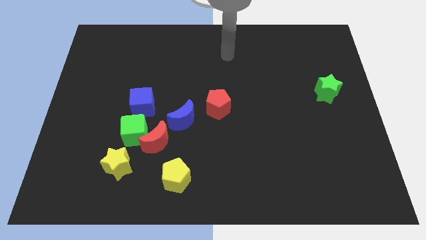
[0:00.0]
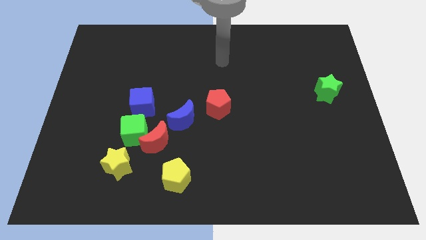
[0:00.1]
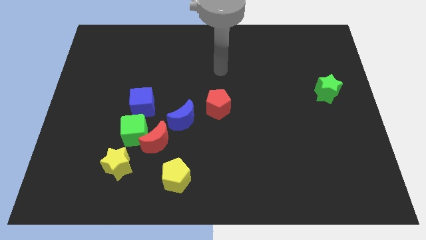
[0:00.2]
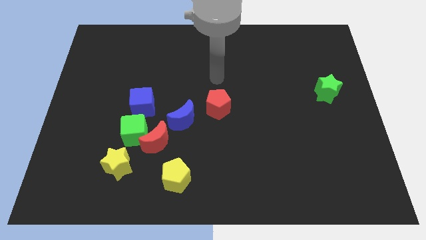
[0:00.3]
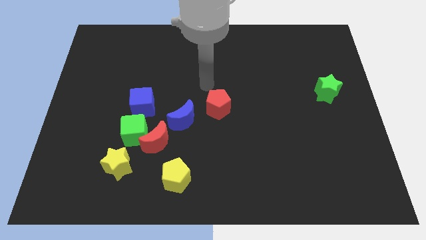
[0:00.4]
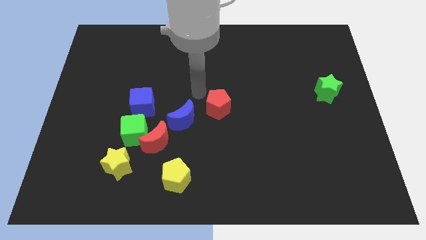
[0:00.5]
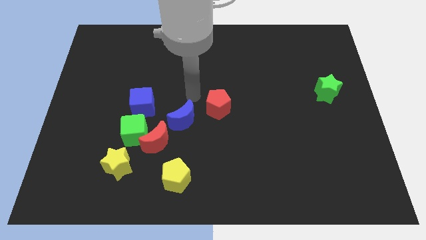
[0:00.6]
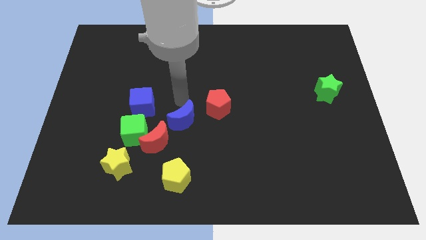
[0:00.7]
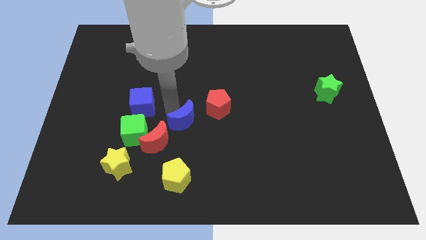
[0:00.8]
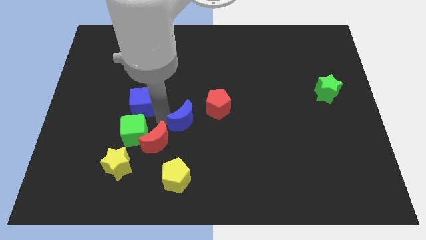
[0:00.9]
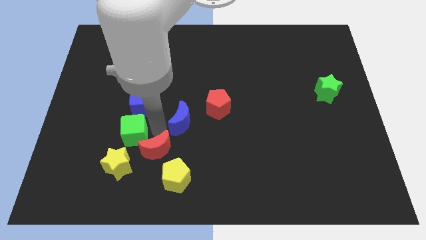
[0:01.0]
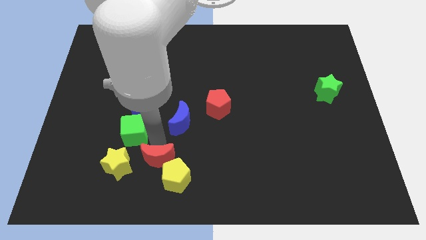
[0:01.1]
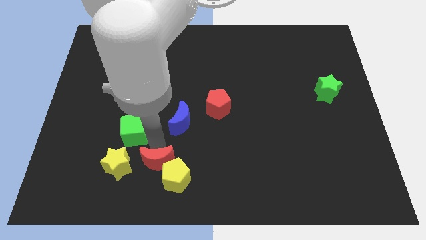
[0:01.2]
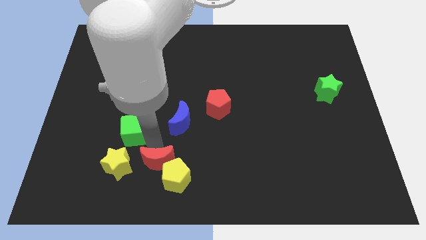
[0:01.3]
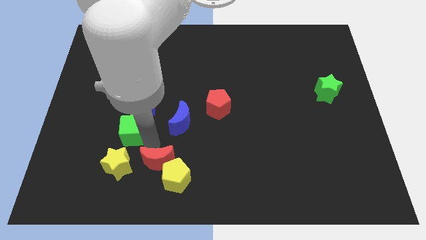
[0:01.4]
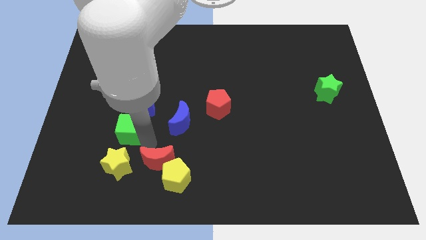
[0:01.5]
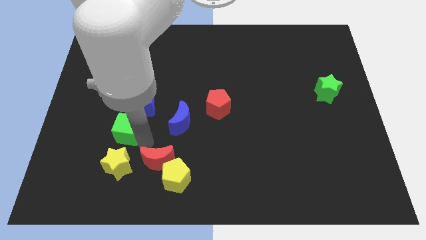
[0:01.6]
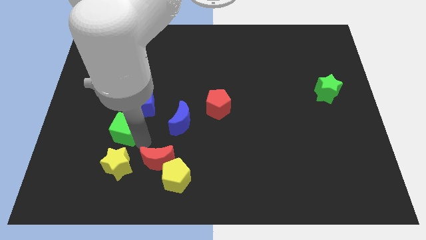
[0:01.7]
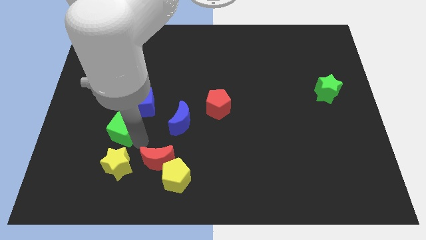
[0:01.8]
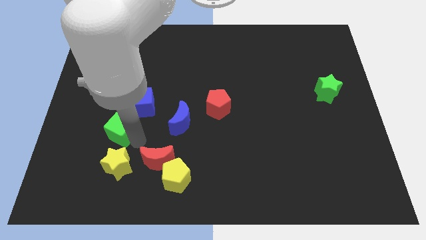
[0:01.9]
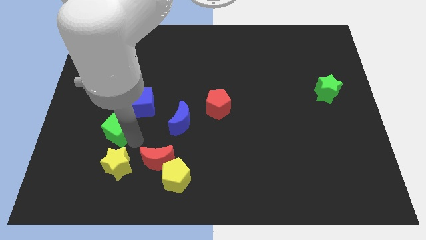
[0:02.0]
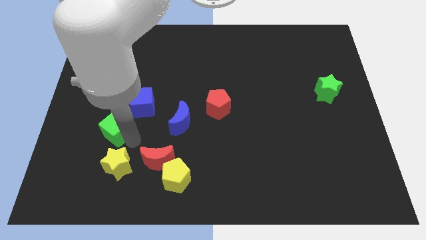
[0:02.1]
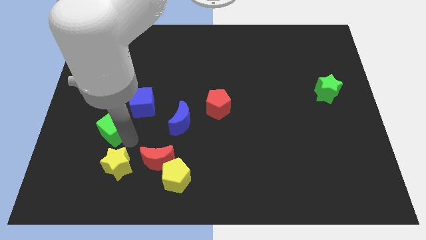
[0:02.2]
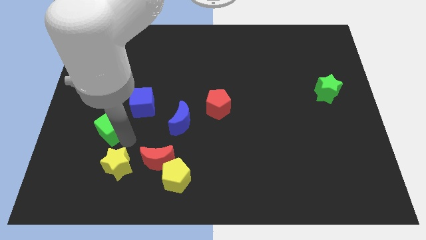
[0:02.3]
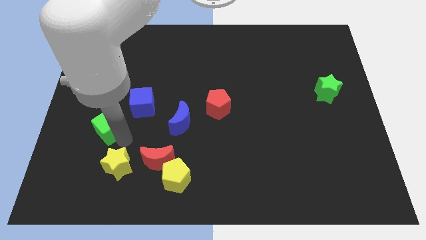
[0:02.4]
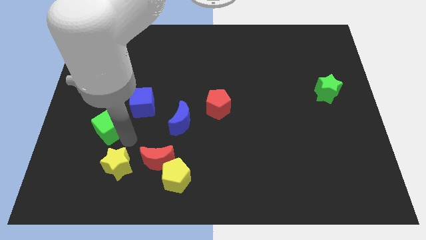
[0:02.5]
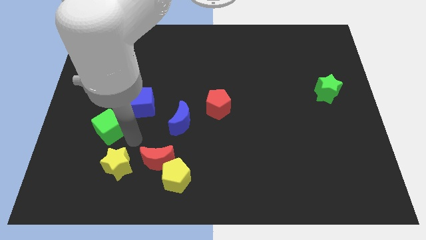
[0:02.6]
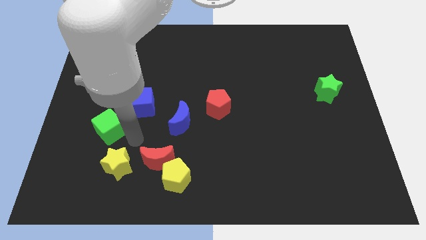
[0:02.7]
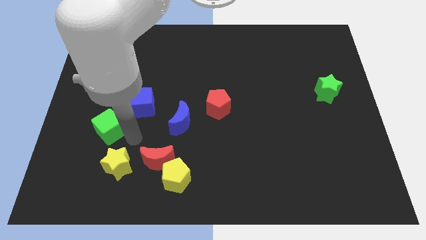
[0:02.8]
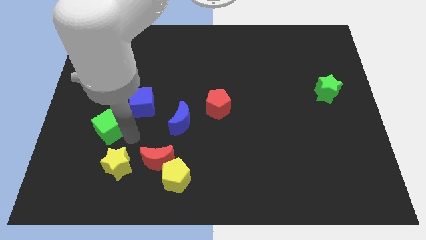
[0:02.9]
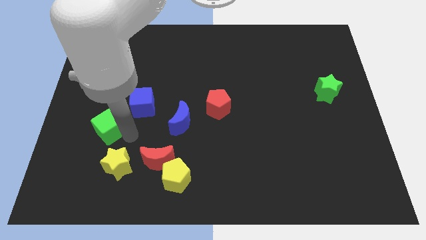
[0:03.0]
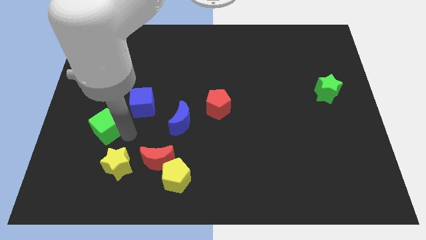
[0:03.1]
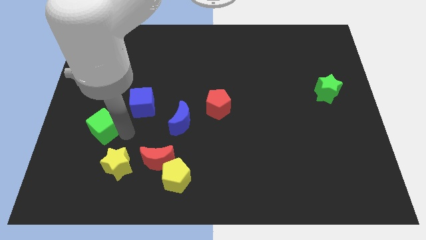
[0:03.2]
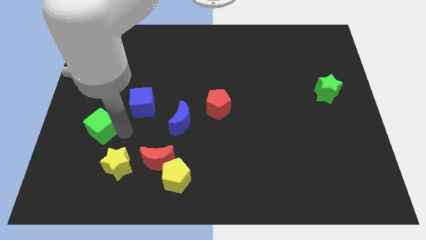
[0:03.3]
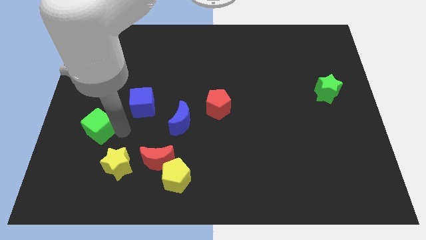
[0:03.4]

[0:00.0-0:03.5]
pull the green cube apart from the red moon, blue cube, and yellow star

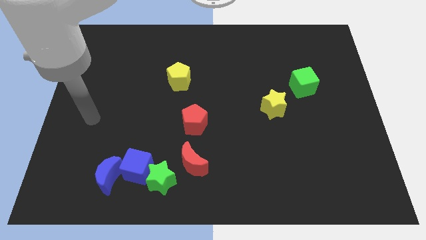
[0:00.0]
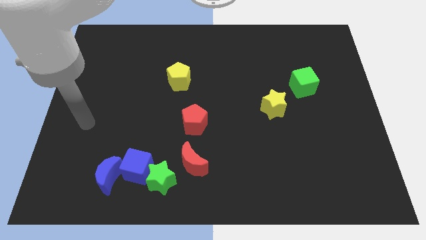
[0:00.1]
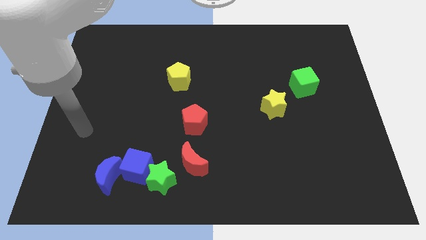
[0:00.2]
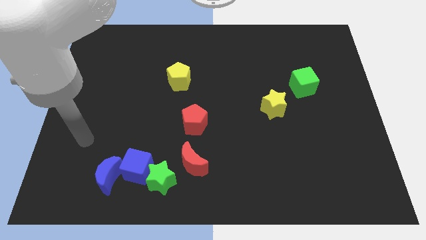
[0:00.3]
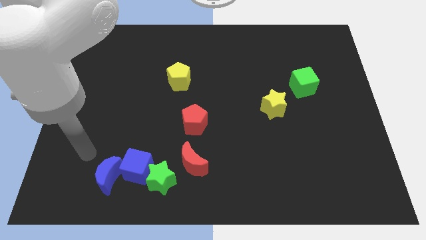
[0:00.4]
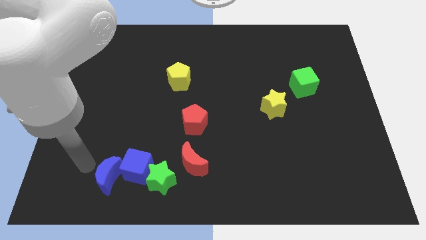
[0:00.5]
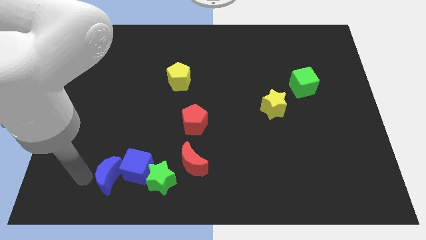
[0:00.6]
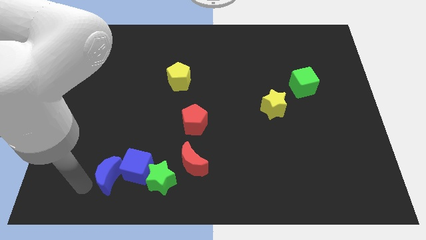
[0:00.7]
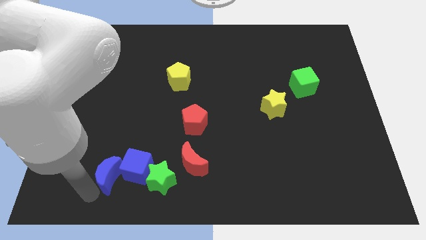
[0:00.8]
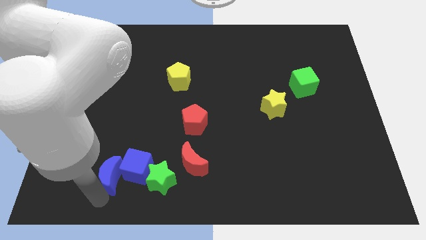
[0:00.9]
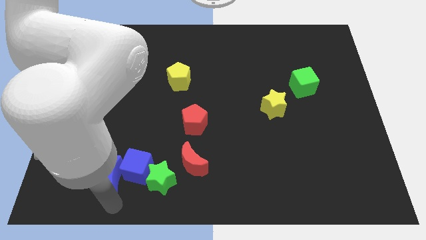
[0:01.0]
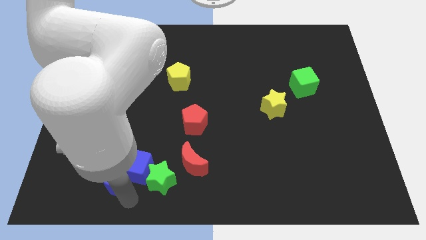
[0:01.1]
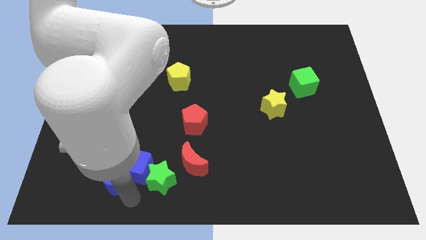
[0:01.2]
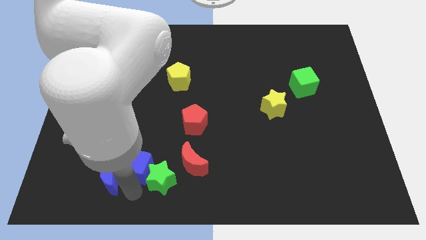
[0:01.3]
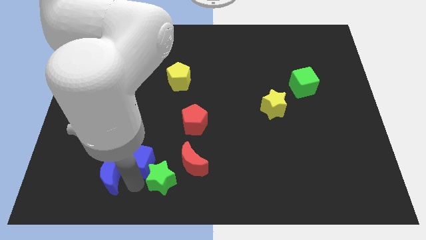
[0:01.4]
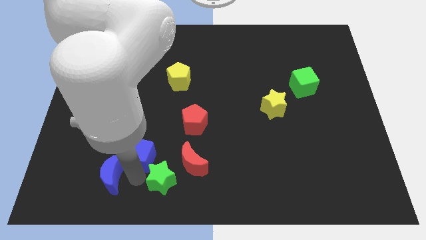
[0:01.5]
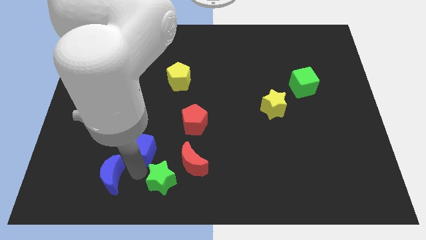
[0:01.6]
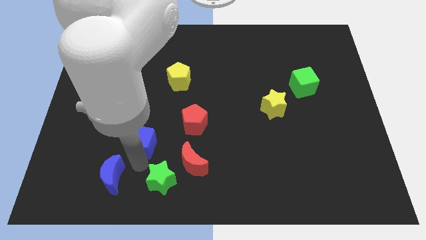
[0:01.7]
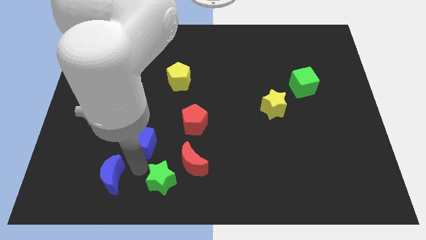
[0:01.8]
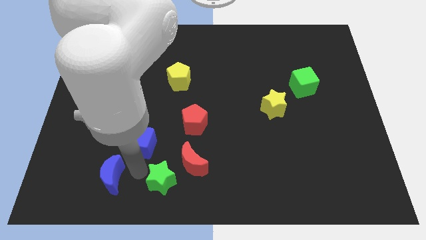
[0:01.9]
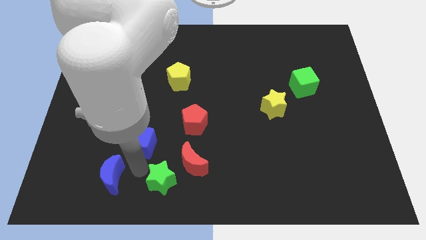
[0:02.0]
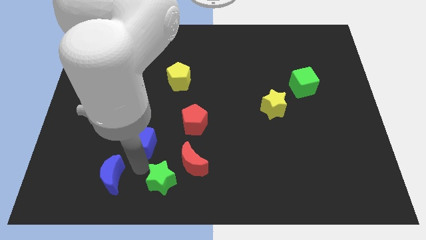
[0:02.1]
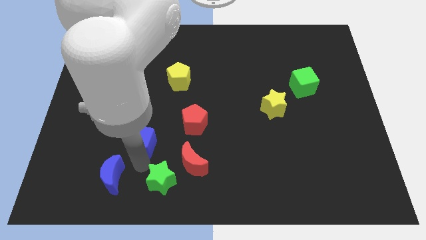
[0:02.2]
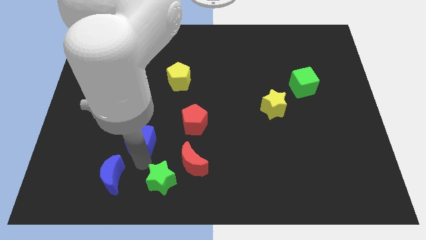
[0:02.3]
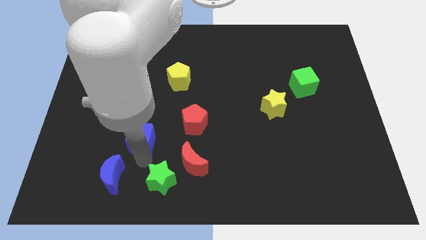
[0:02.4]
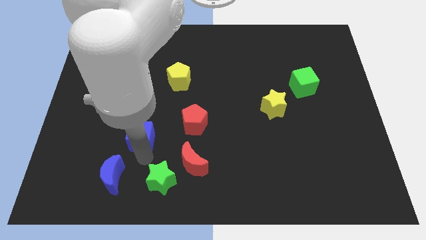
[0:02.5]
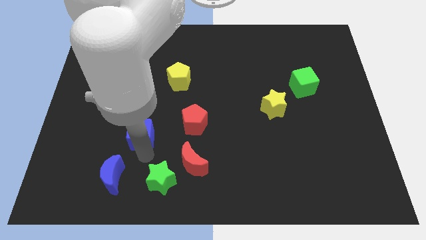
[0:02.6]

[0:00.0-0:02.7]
move the blue cube away from the green star and blue moon

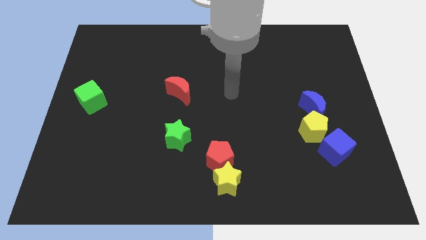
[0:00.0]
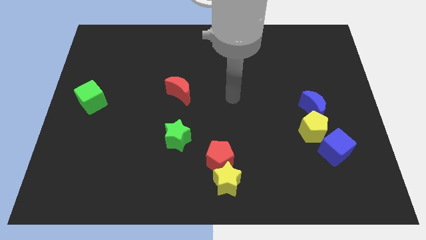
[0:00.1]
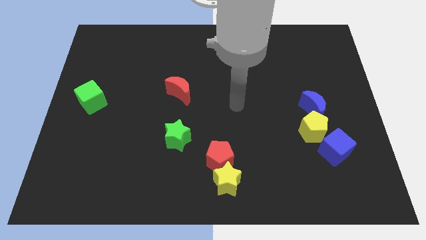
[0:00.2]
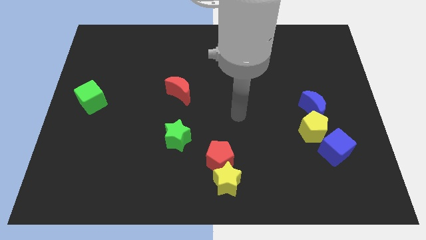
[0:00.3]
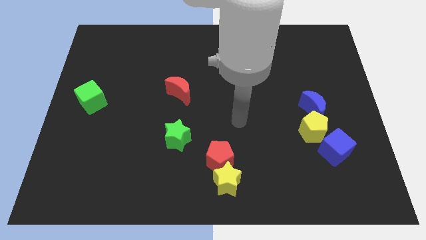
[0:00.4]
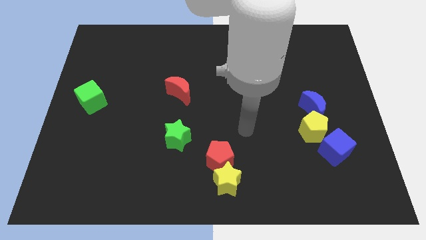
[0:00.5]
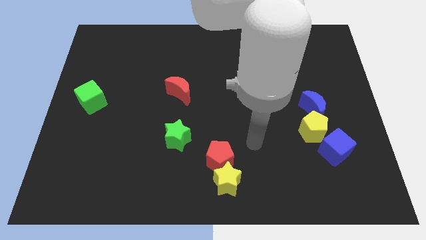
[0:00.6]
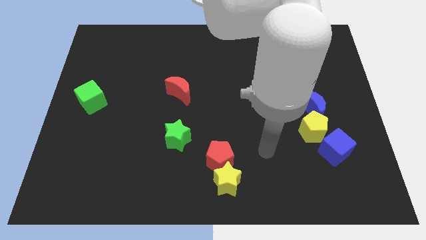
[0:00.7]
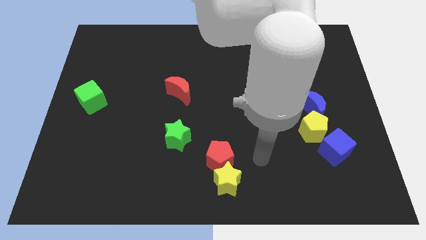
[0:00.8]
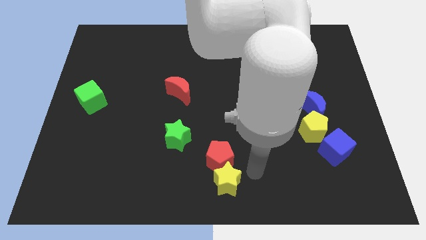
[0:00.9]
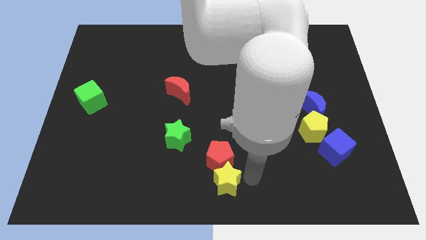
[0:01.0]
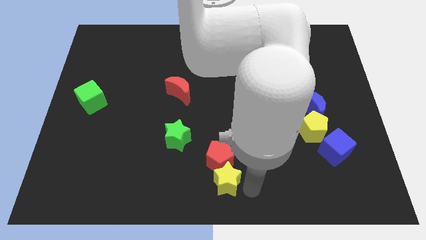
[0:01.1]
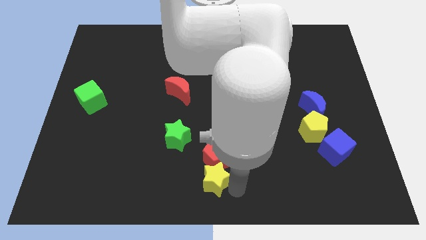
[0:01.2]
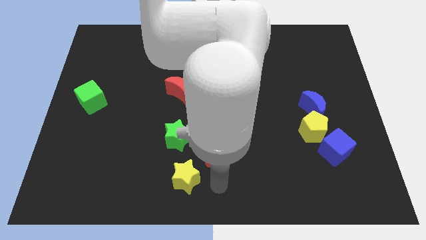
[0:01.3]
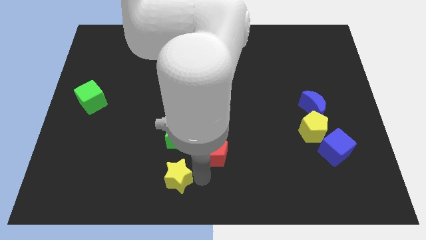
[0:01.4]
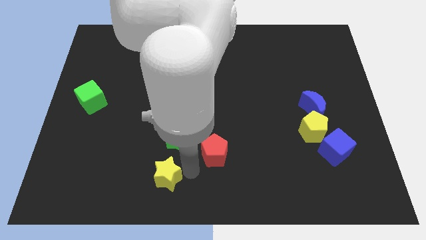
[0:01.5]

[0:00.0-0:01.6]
move the red pentagon away from the yellow star

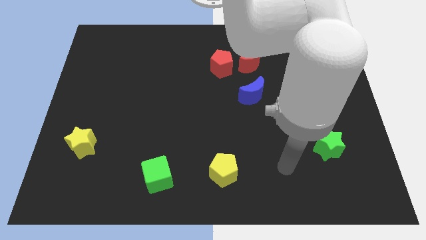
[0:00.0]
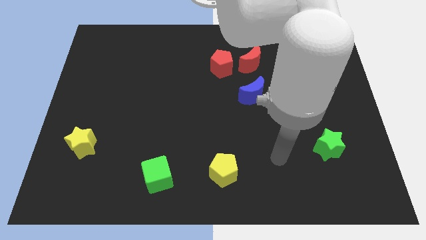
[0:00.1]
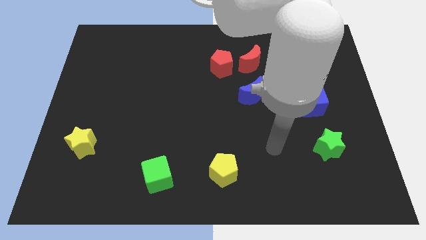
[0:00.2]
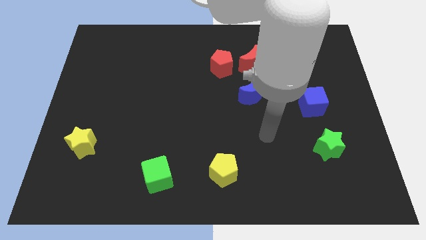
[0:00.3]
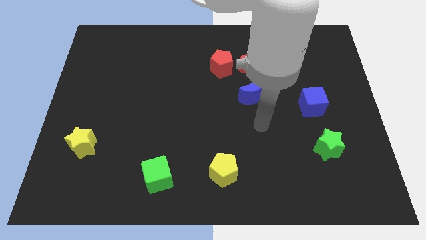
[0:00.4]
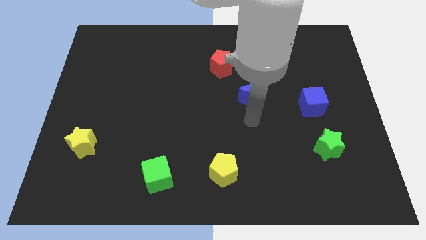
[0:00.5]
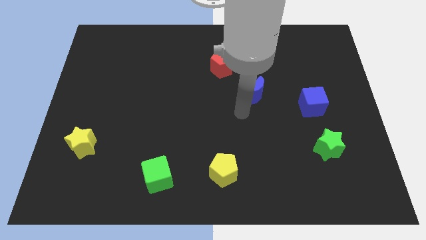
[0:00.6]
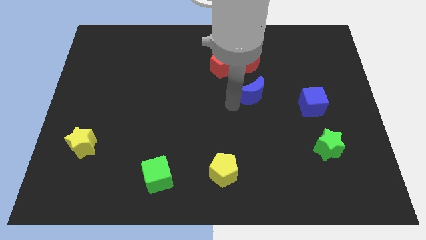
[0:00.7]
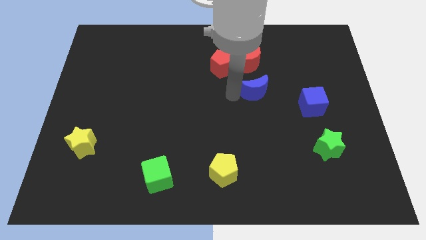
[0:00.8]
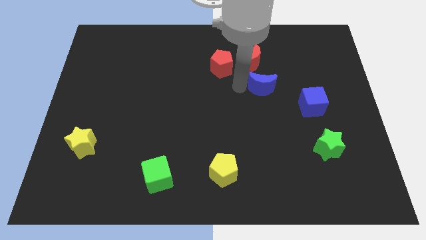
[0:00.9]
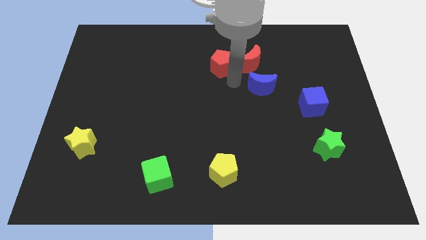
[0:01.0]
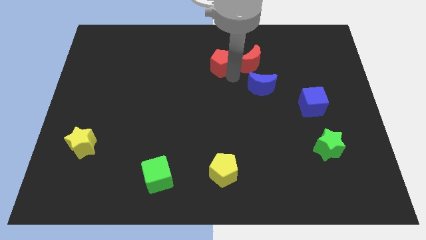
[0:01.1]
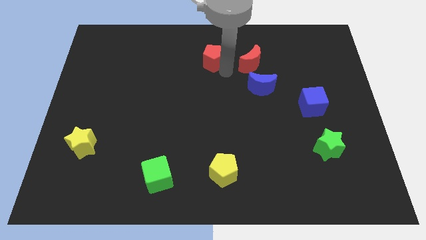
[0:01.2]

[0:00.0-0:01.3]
separate the red moon from the red pentagon

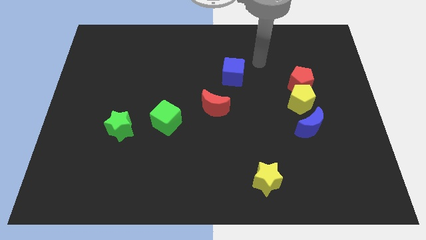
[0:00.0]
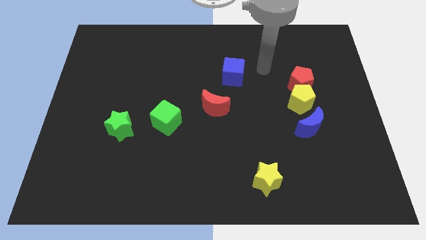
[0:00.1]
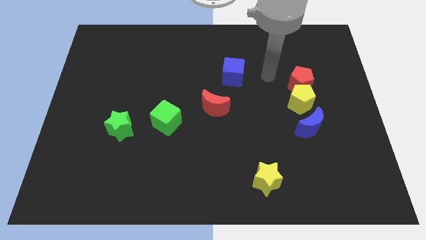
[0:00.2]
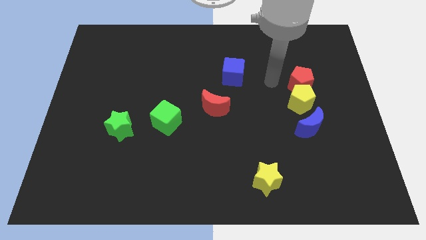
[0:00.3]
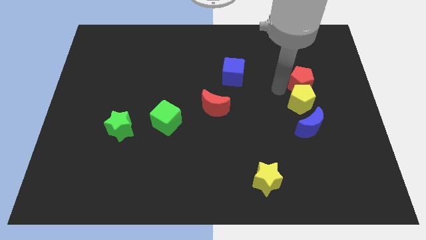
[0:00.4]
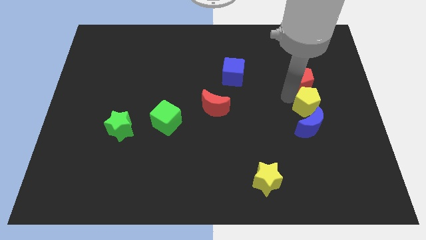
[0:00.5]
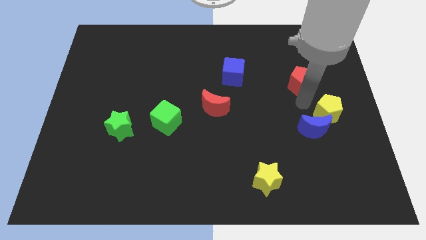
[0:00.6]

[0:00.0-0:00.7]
separate the red pentagon from the yellow pentagon
